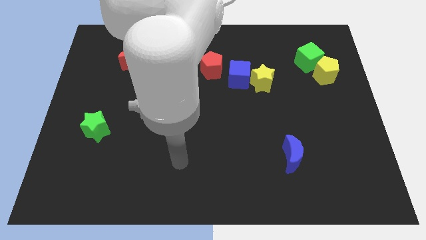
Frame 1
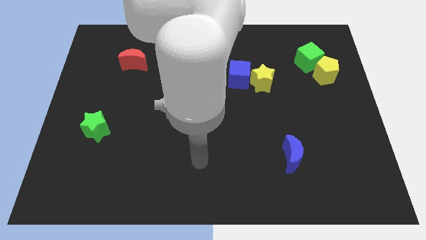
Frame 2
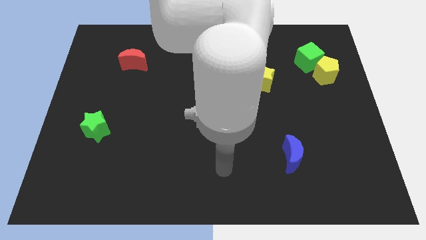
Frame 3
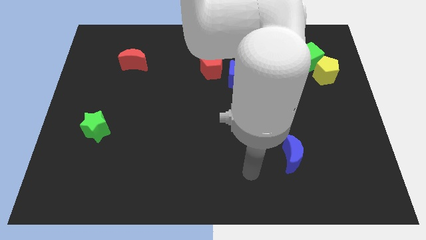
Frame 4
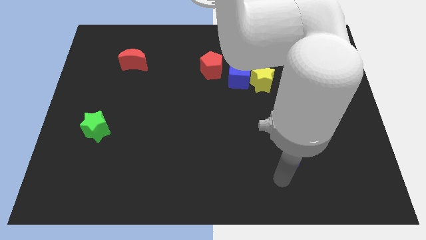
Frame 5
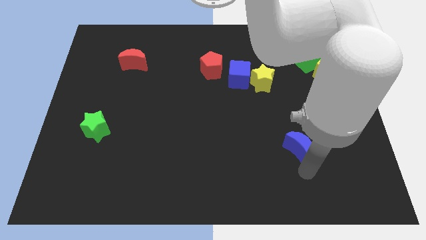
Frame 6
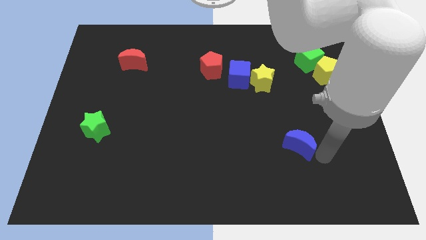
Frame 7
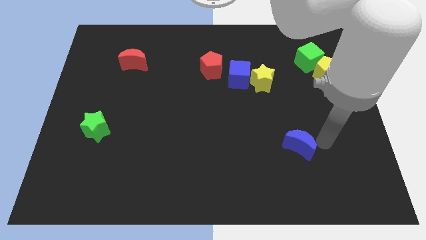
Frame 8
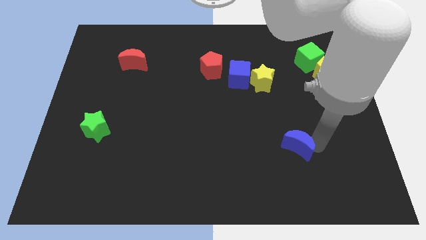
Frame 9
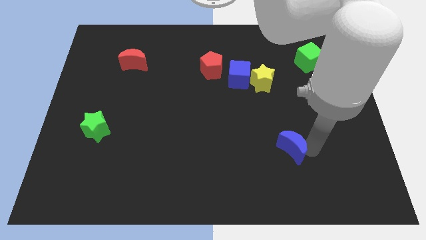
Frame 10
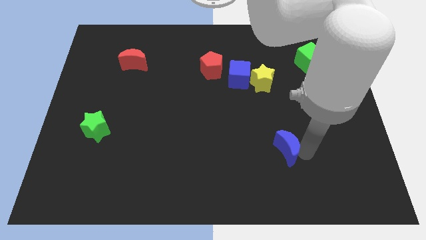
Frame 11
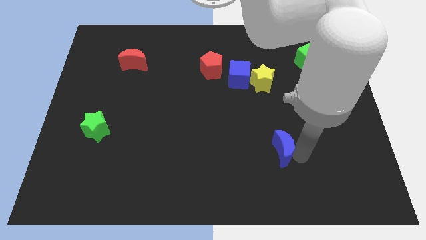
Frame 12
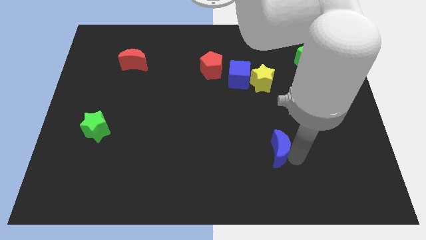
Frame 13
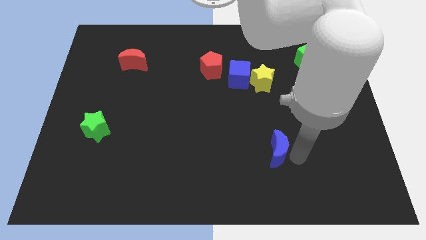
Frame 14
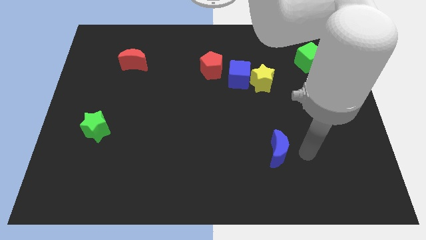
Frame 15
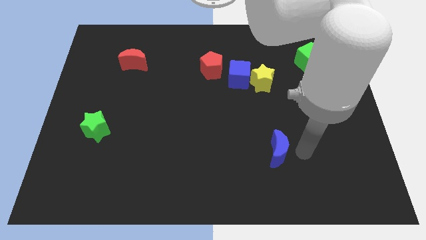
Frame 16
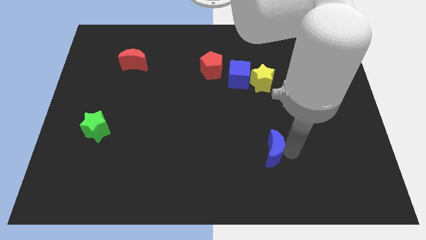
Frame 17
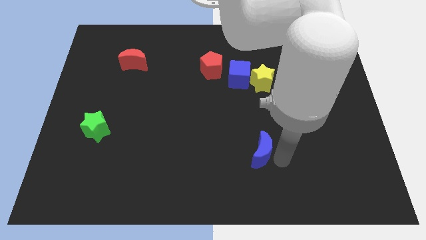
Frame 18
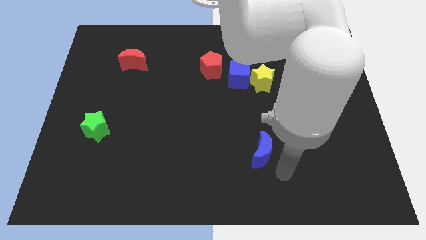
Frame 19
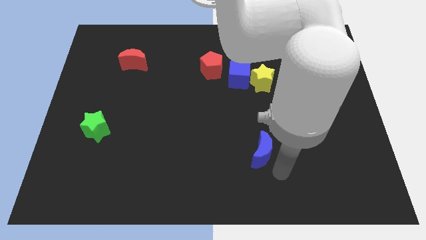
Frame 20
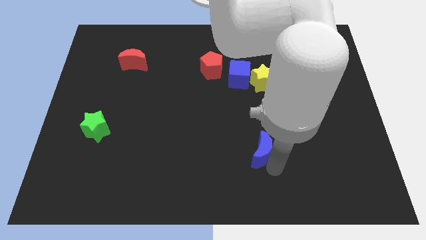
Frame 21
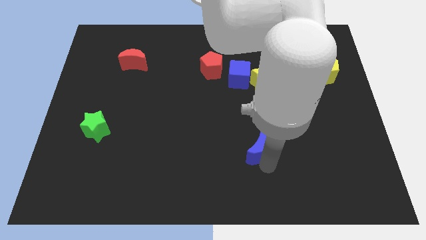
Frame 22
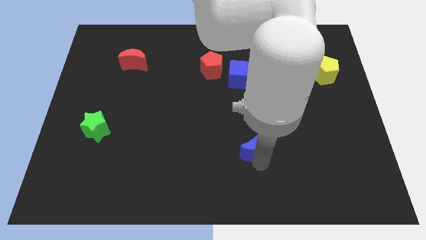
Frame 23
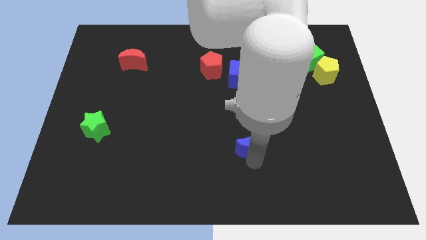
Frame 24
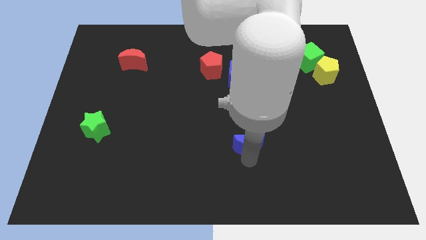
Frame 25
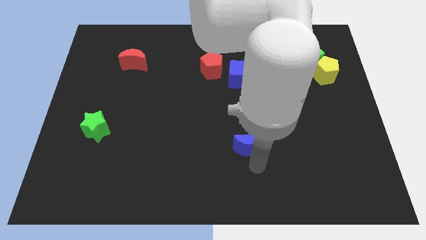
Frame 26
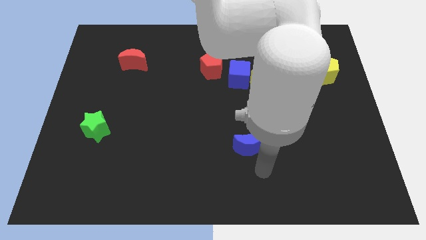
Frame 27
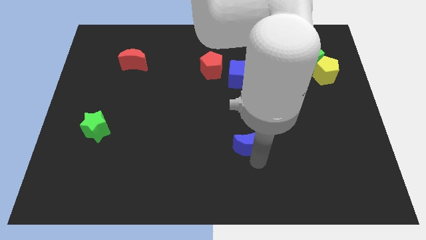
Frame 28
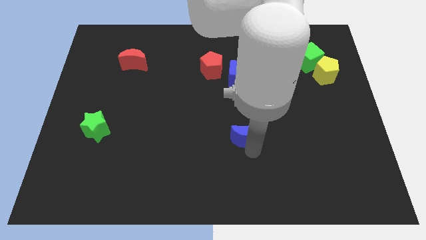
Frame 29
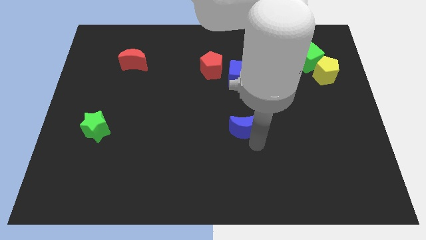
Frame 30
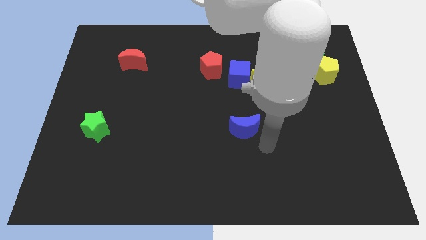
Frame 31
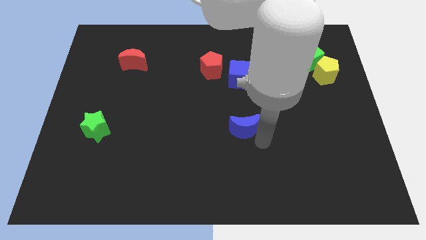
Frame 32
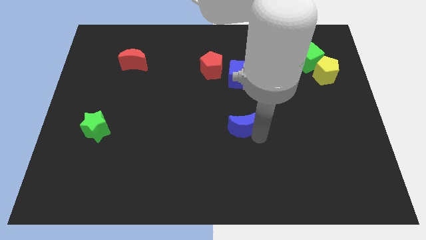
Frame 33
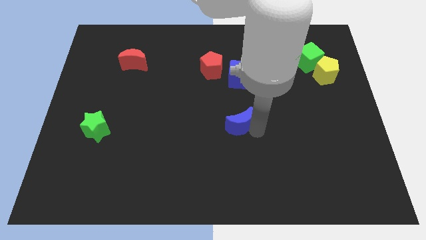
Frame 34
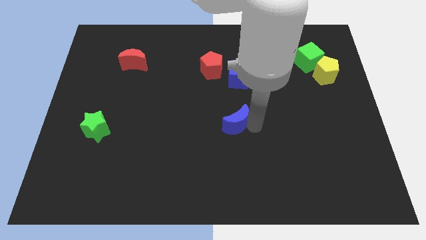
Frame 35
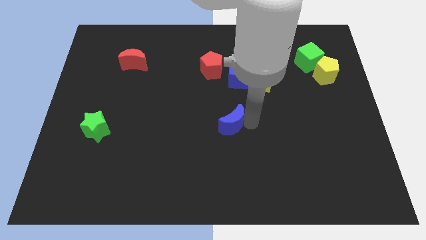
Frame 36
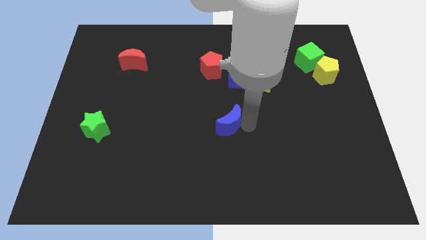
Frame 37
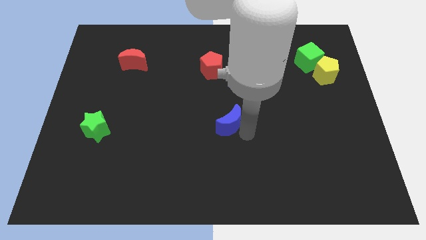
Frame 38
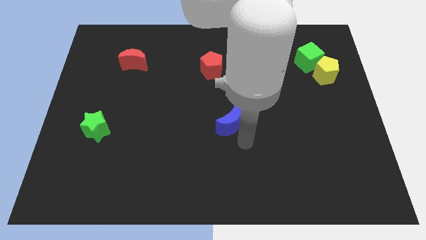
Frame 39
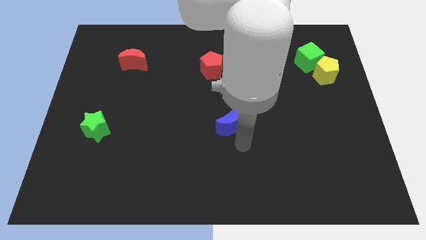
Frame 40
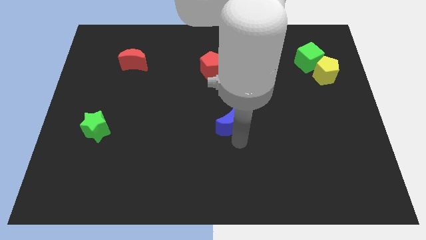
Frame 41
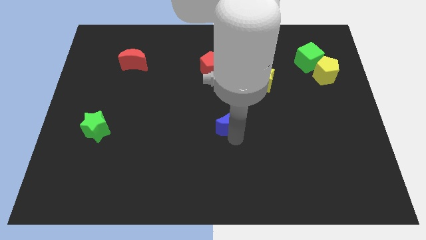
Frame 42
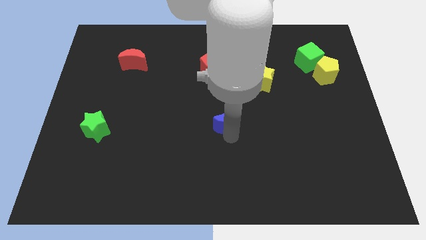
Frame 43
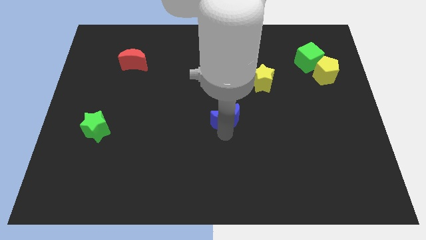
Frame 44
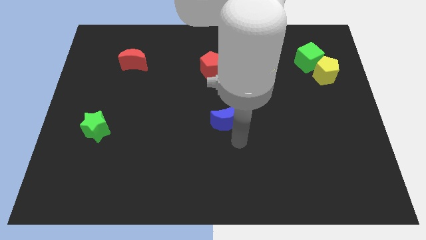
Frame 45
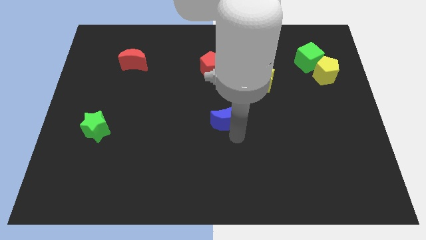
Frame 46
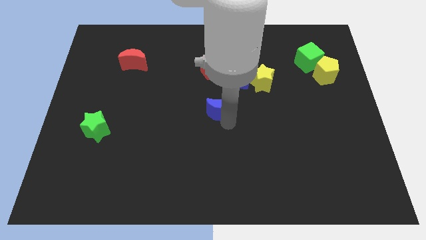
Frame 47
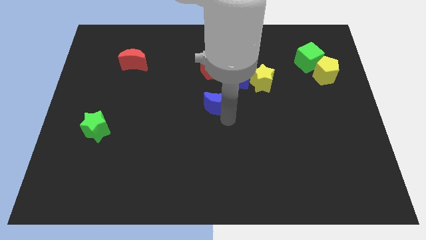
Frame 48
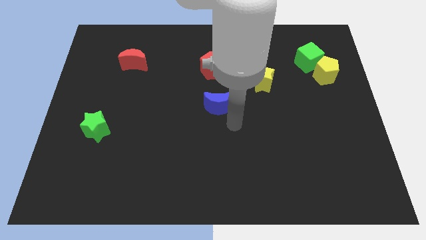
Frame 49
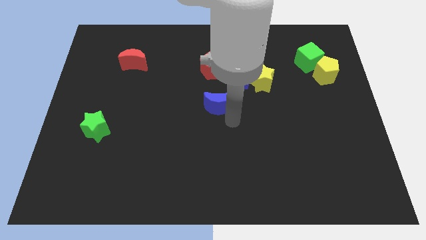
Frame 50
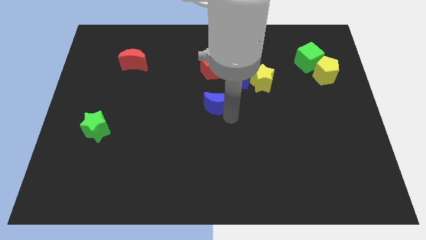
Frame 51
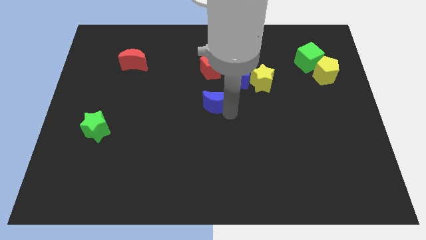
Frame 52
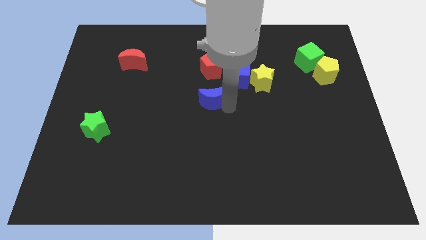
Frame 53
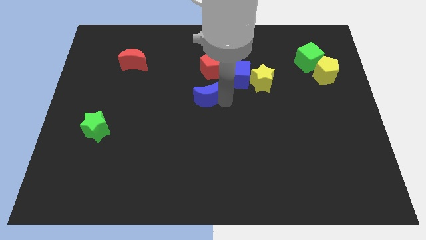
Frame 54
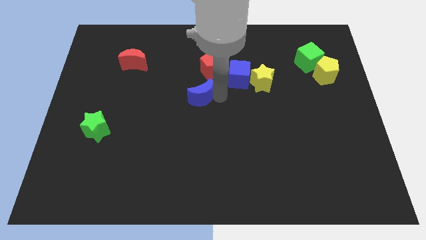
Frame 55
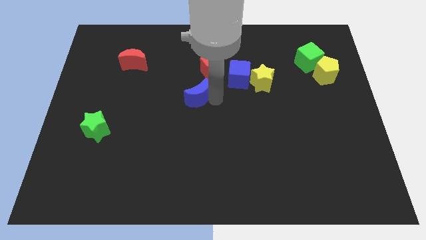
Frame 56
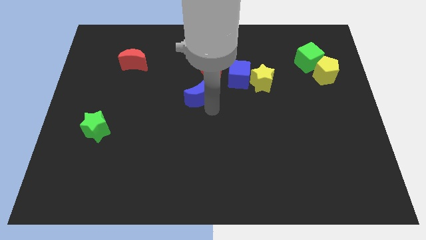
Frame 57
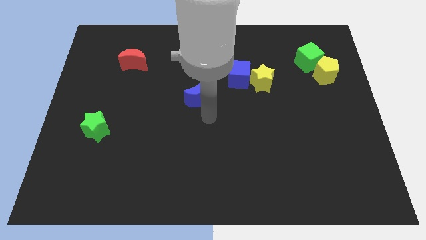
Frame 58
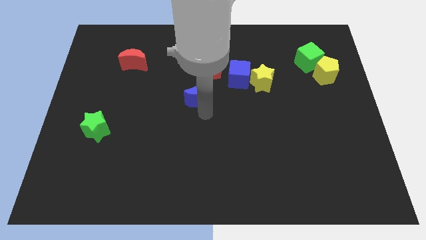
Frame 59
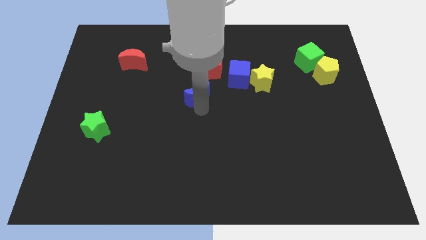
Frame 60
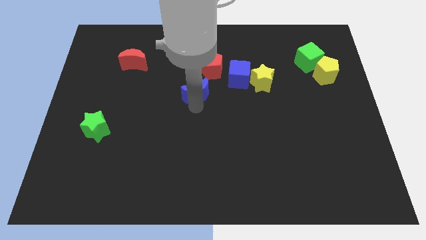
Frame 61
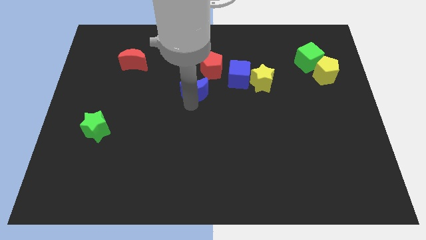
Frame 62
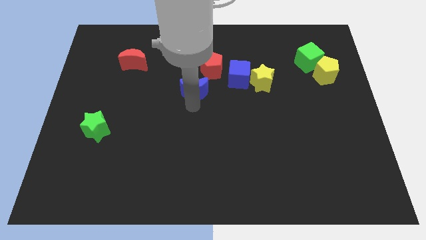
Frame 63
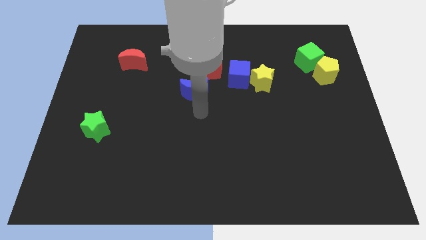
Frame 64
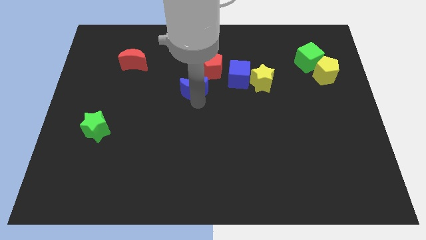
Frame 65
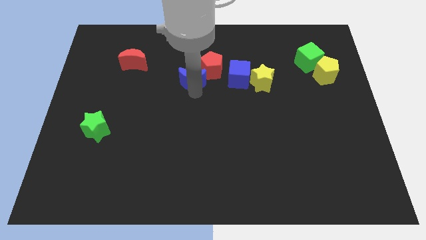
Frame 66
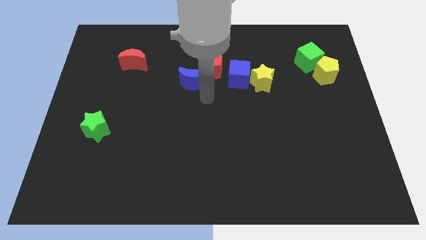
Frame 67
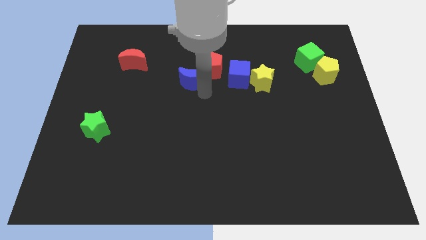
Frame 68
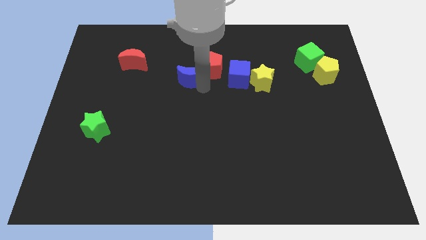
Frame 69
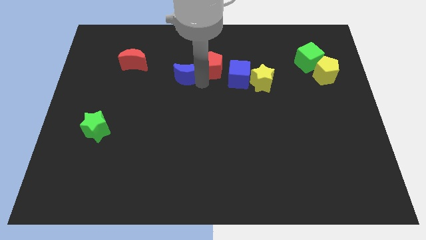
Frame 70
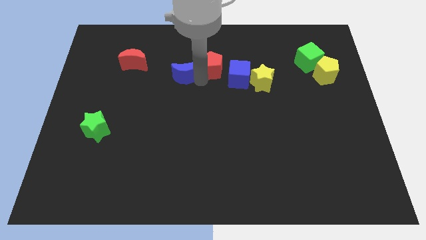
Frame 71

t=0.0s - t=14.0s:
move the blue moon just right of the red moon
